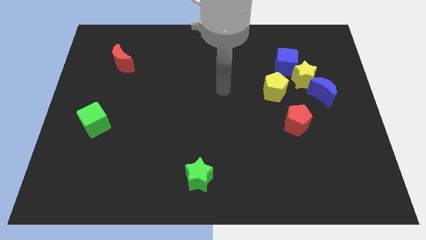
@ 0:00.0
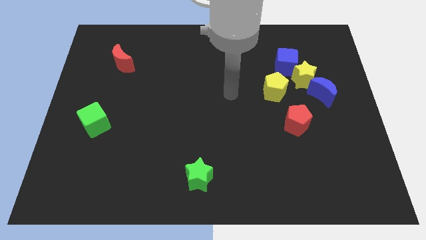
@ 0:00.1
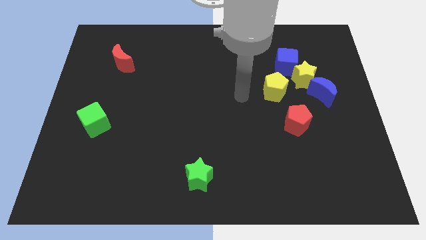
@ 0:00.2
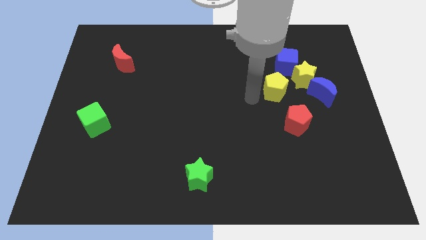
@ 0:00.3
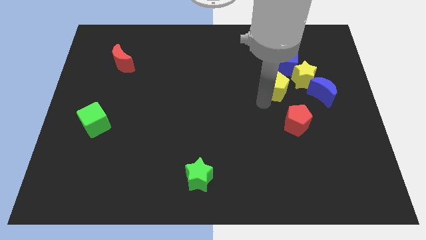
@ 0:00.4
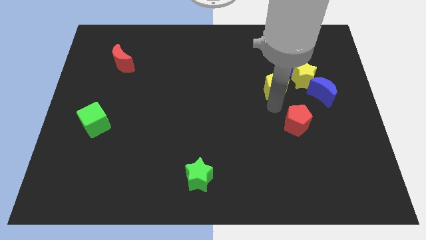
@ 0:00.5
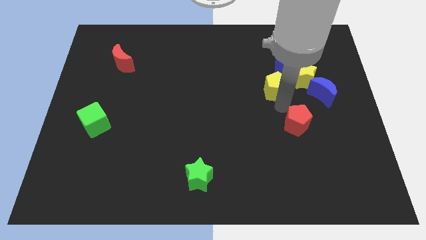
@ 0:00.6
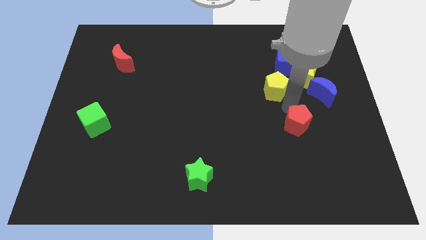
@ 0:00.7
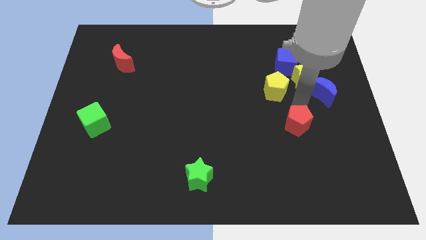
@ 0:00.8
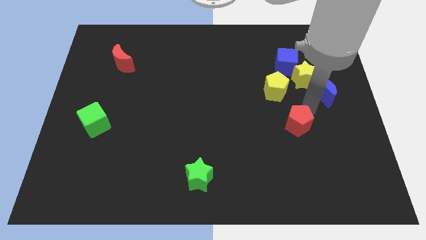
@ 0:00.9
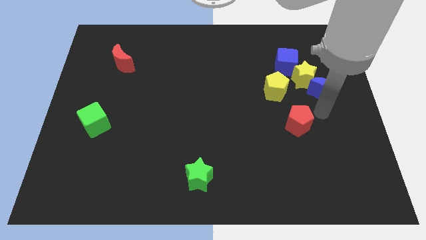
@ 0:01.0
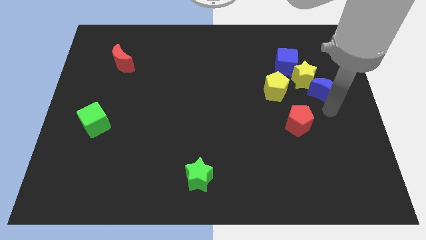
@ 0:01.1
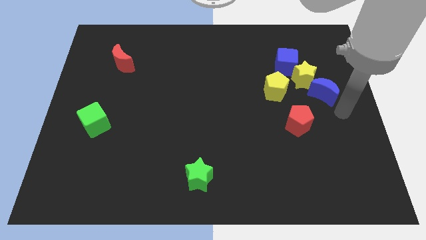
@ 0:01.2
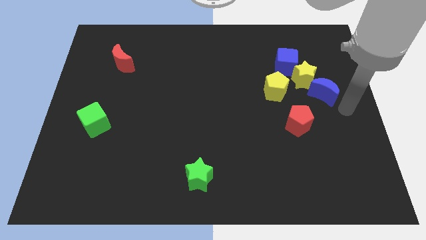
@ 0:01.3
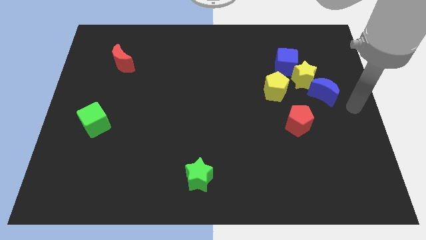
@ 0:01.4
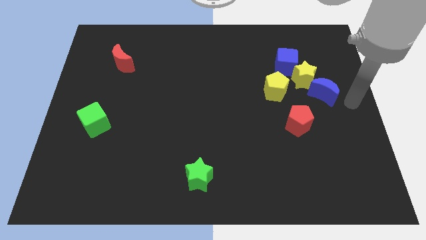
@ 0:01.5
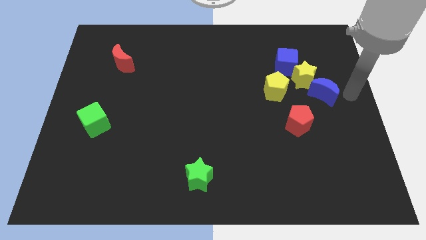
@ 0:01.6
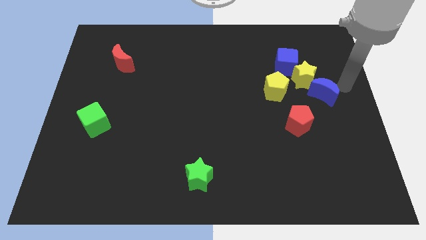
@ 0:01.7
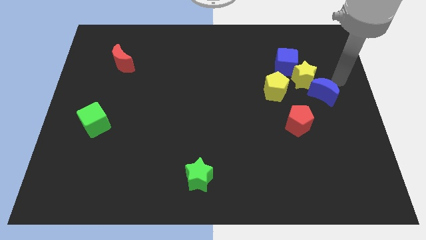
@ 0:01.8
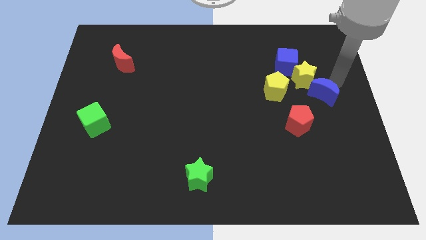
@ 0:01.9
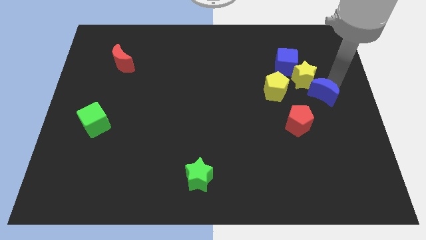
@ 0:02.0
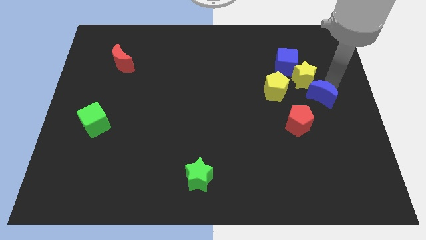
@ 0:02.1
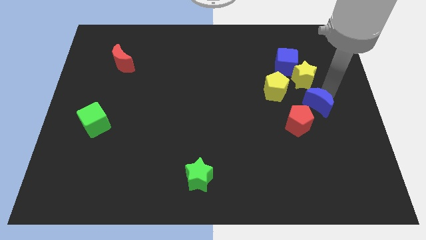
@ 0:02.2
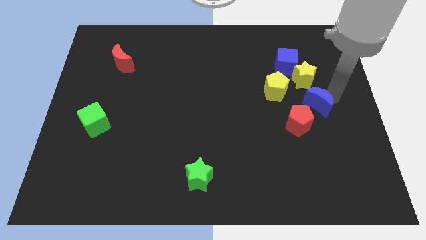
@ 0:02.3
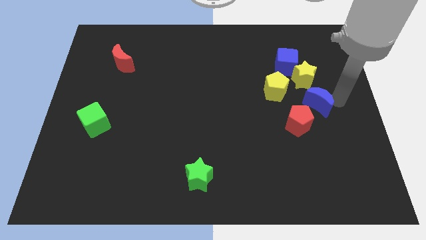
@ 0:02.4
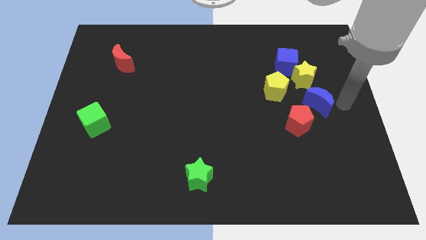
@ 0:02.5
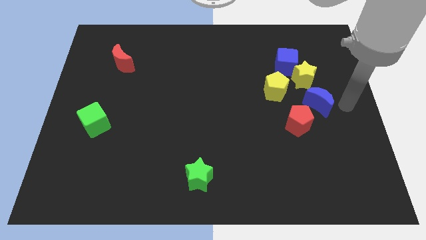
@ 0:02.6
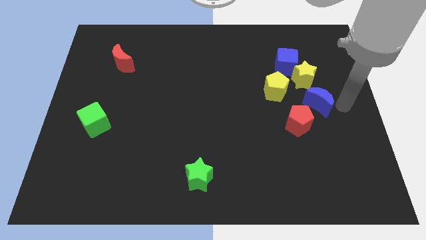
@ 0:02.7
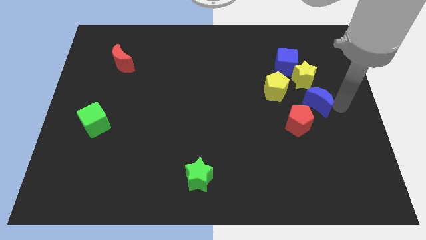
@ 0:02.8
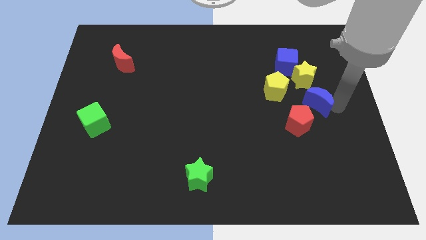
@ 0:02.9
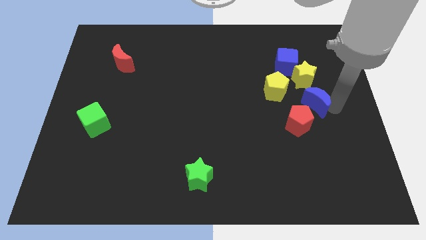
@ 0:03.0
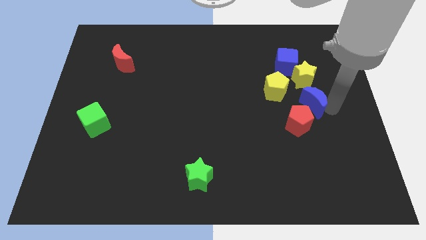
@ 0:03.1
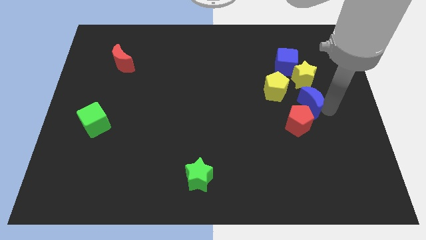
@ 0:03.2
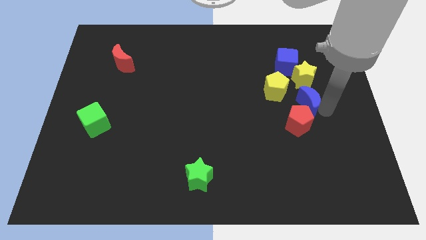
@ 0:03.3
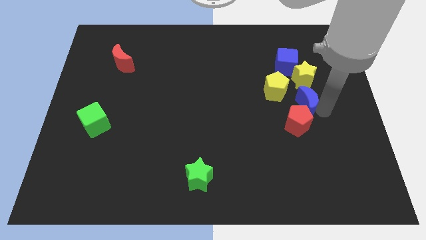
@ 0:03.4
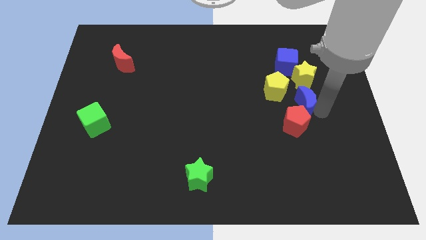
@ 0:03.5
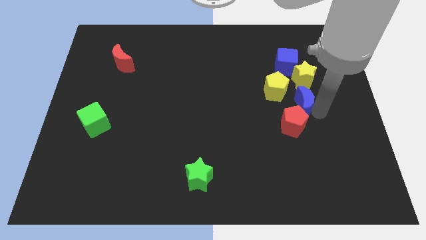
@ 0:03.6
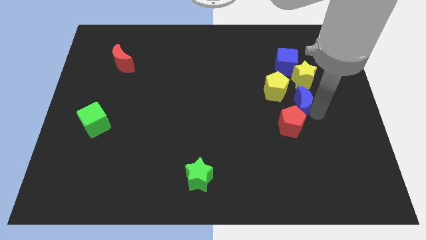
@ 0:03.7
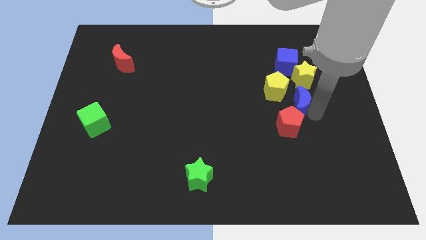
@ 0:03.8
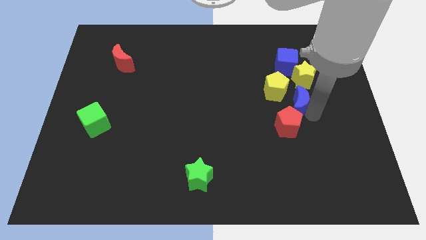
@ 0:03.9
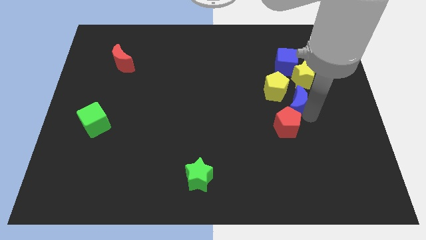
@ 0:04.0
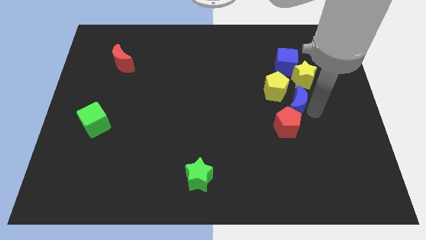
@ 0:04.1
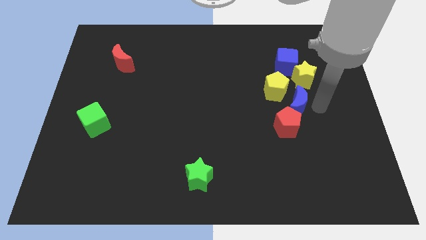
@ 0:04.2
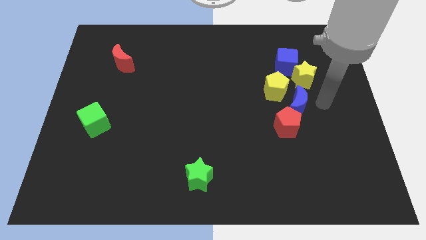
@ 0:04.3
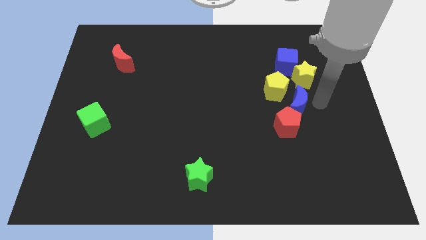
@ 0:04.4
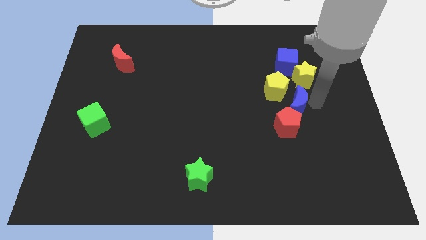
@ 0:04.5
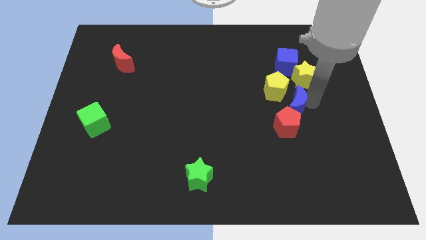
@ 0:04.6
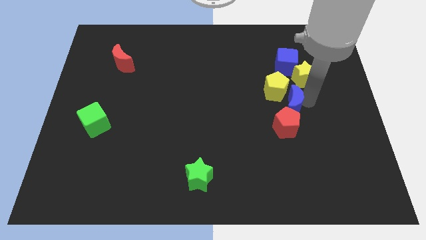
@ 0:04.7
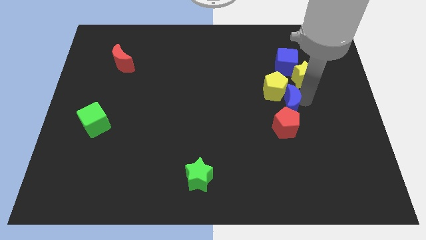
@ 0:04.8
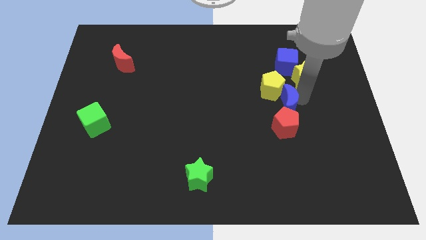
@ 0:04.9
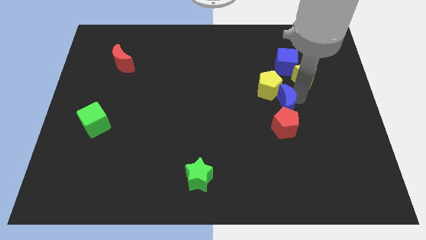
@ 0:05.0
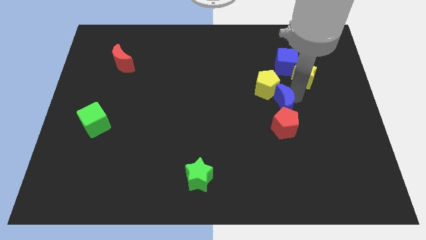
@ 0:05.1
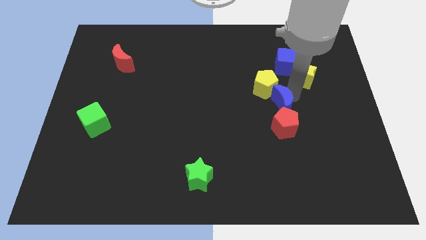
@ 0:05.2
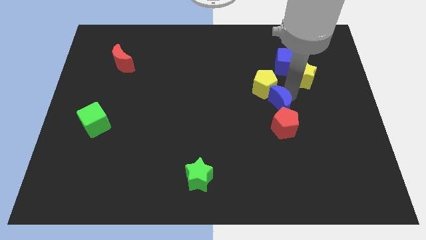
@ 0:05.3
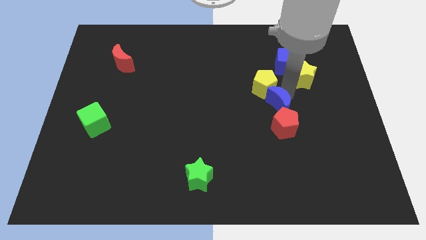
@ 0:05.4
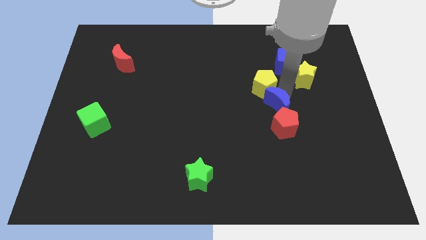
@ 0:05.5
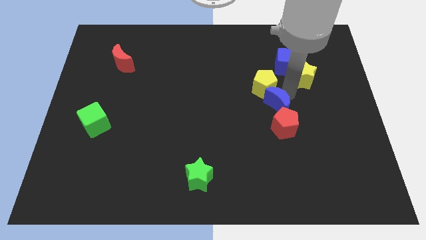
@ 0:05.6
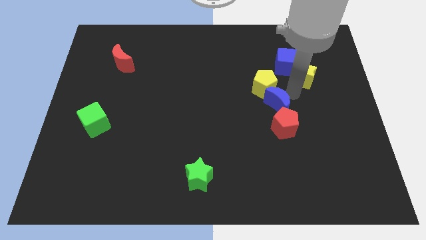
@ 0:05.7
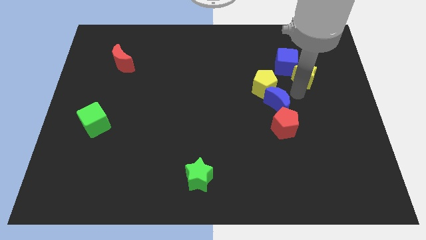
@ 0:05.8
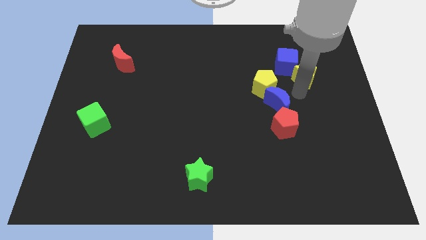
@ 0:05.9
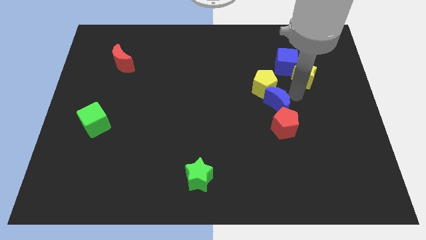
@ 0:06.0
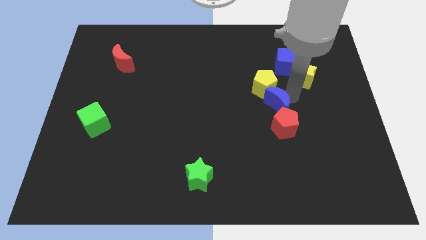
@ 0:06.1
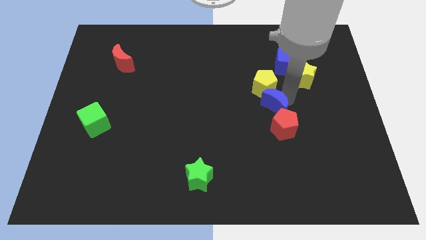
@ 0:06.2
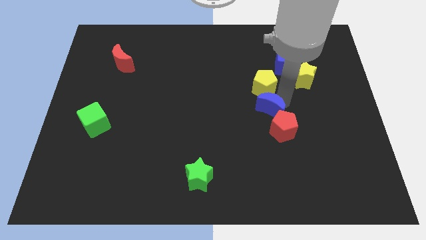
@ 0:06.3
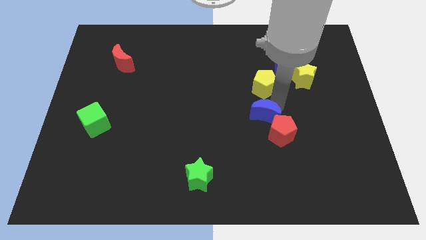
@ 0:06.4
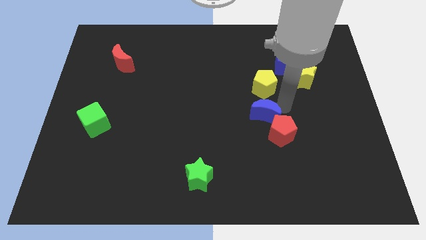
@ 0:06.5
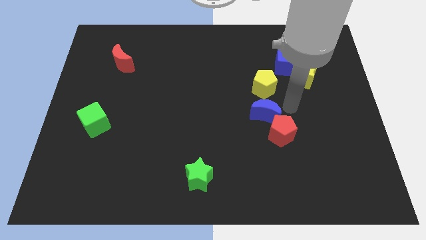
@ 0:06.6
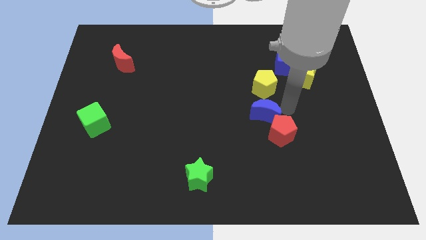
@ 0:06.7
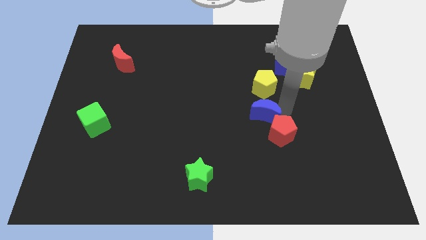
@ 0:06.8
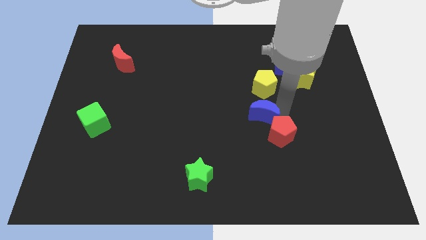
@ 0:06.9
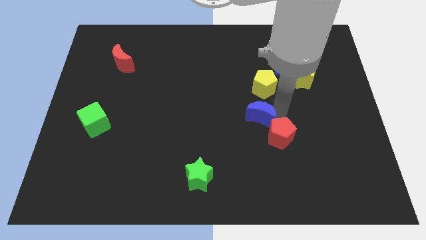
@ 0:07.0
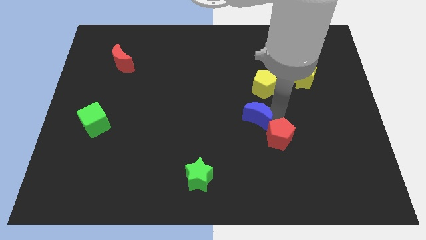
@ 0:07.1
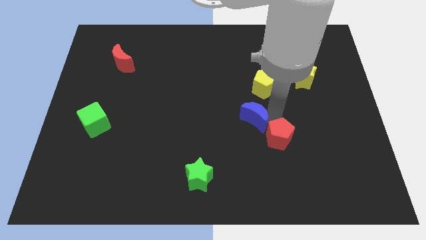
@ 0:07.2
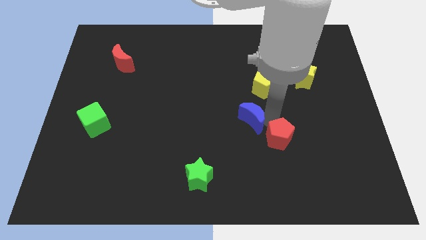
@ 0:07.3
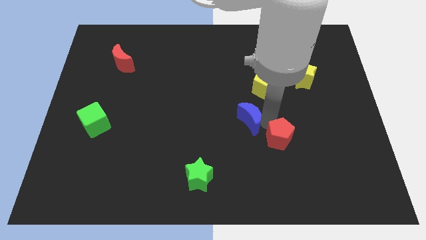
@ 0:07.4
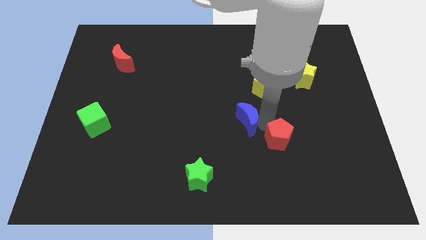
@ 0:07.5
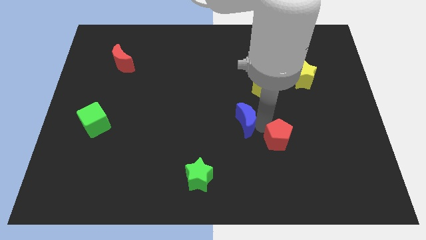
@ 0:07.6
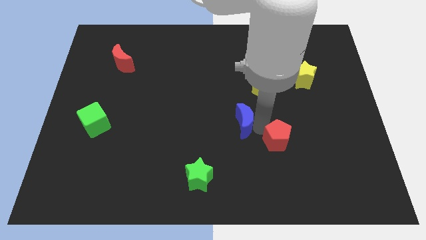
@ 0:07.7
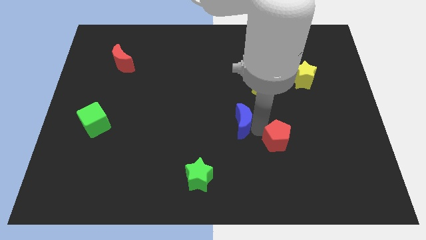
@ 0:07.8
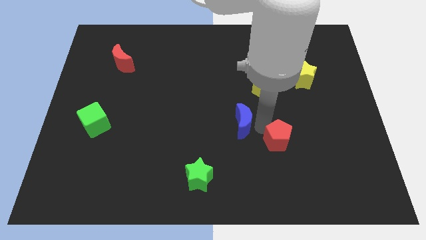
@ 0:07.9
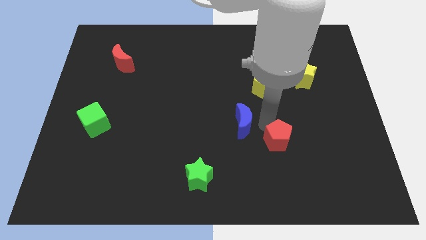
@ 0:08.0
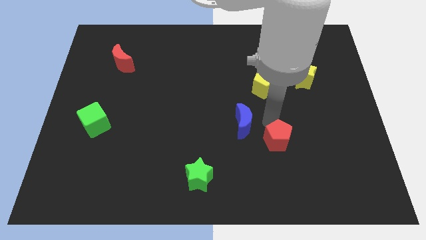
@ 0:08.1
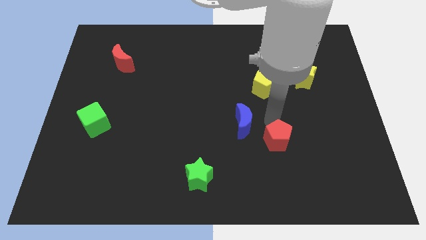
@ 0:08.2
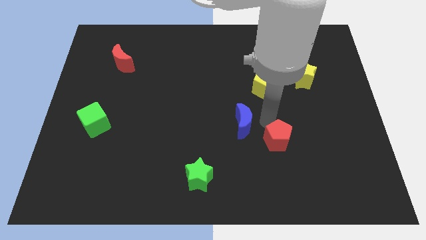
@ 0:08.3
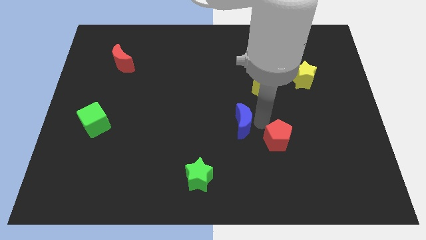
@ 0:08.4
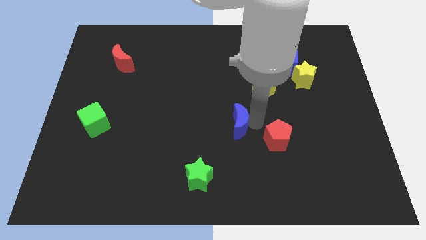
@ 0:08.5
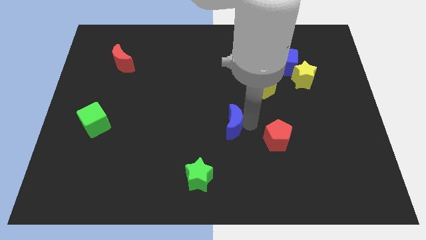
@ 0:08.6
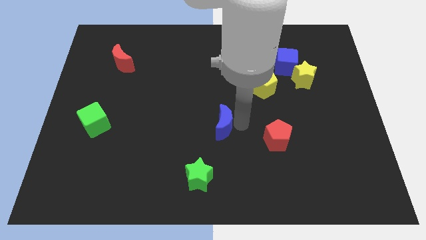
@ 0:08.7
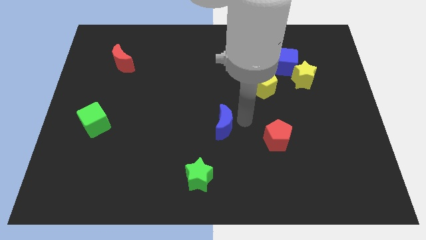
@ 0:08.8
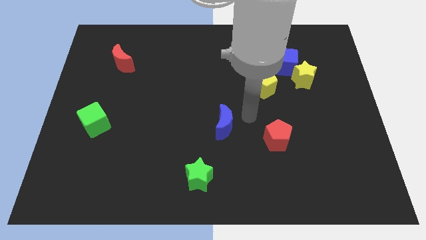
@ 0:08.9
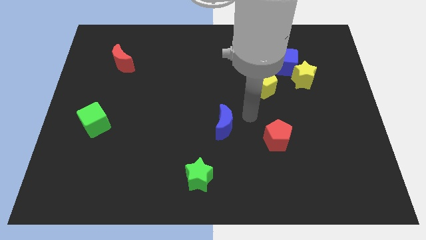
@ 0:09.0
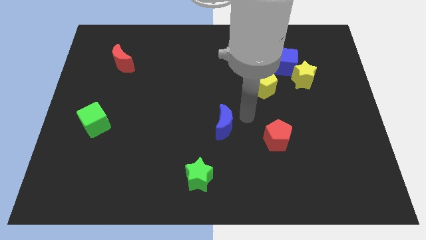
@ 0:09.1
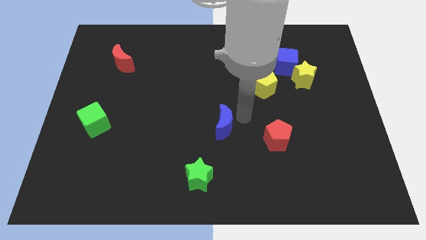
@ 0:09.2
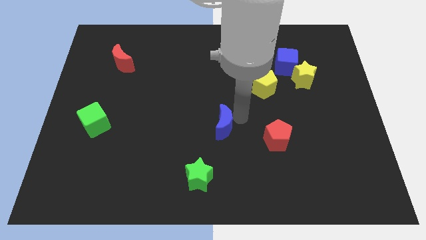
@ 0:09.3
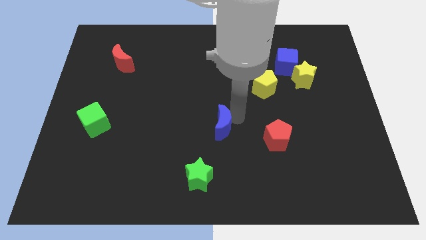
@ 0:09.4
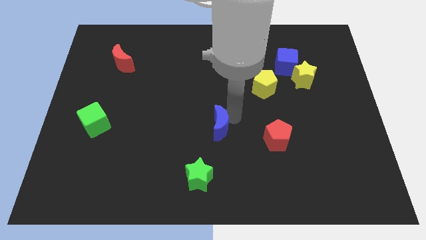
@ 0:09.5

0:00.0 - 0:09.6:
slide the blue moon above the green star
